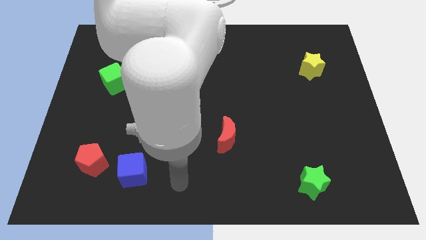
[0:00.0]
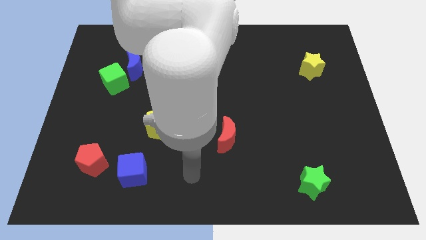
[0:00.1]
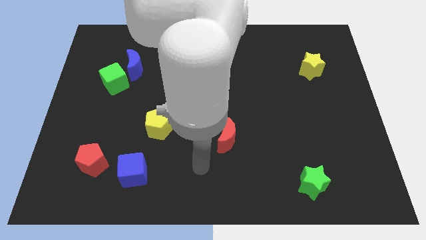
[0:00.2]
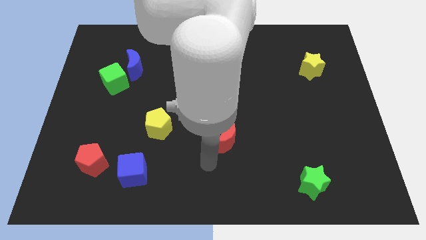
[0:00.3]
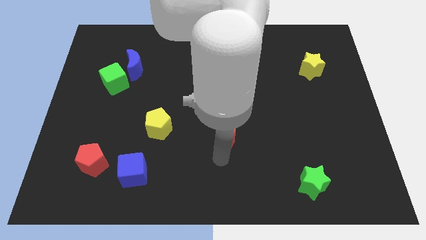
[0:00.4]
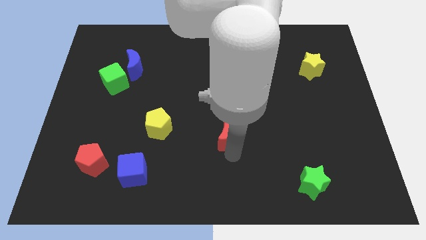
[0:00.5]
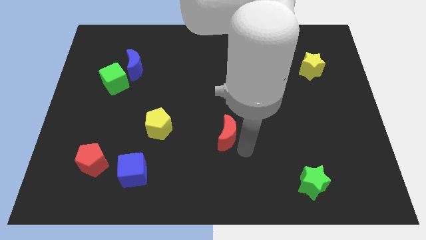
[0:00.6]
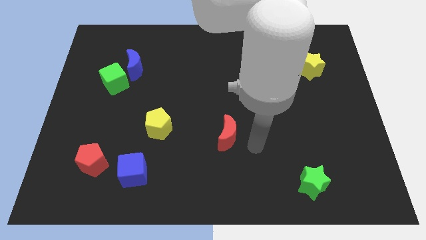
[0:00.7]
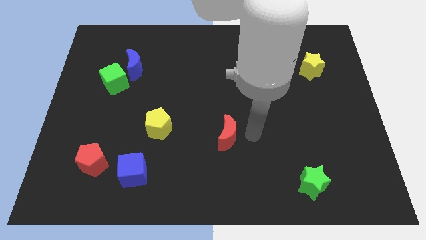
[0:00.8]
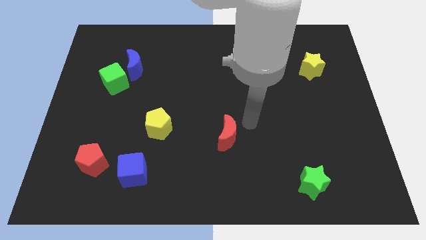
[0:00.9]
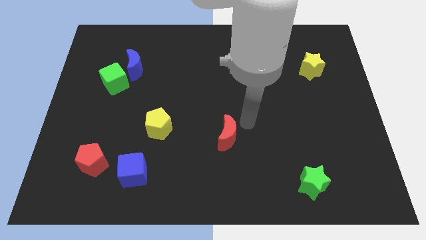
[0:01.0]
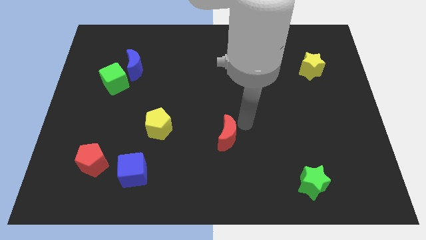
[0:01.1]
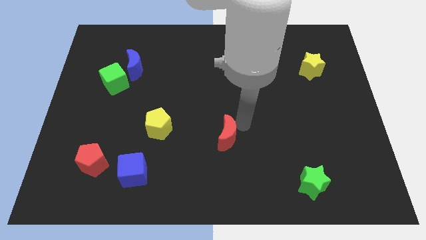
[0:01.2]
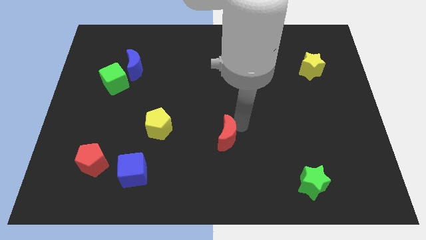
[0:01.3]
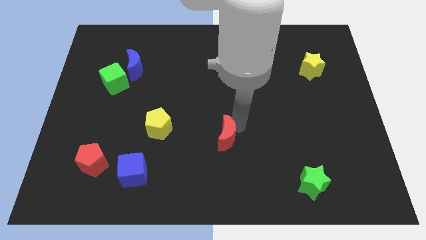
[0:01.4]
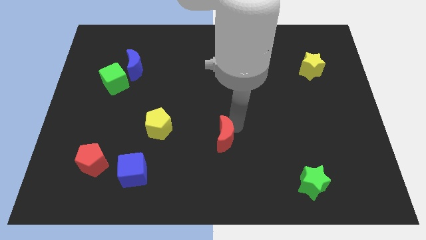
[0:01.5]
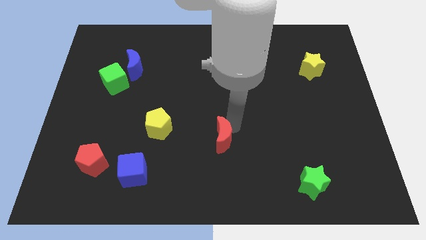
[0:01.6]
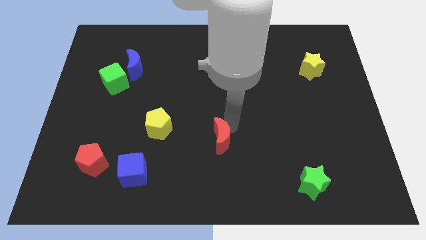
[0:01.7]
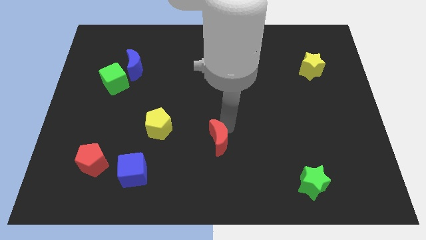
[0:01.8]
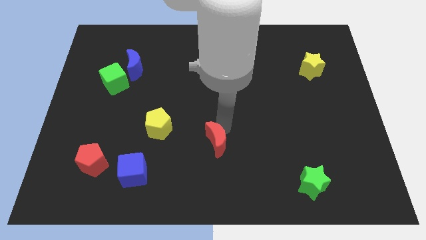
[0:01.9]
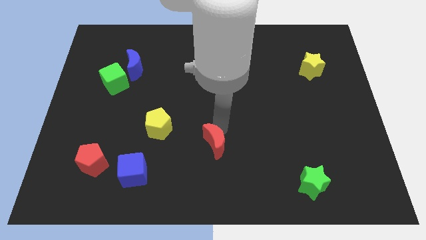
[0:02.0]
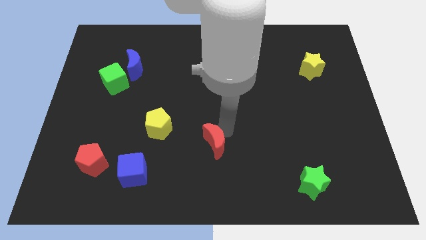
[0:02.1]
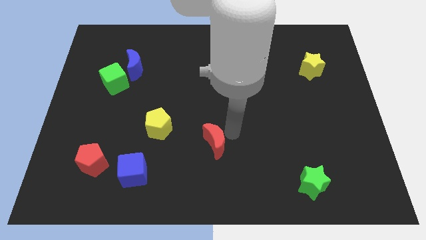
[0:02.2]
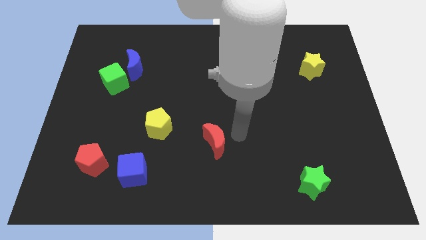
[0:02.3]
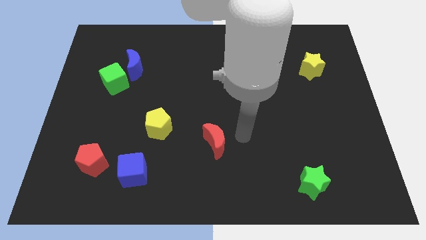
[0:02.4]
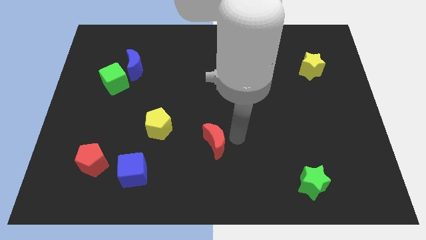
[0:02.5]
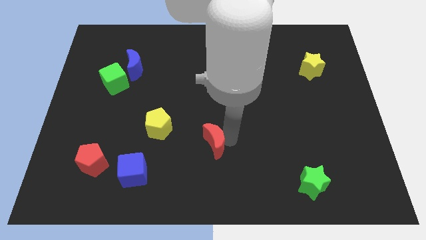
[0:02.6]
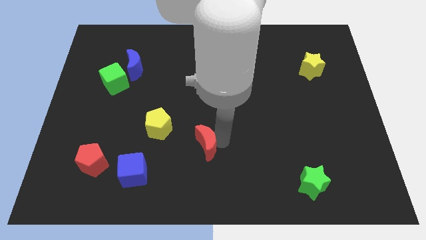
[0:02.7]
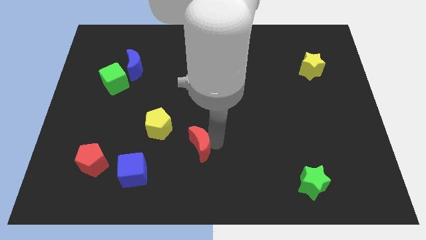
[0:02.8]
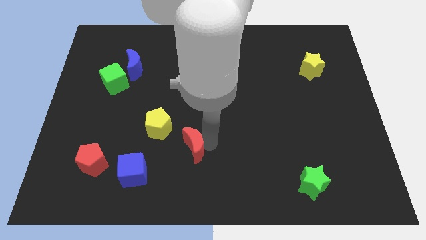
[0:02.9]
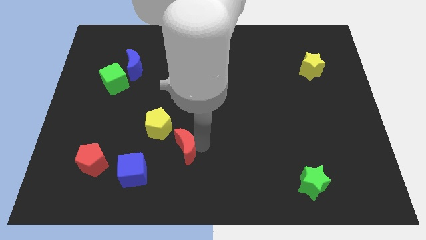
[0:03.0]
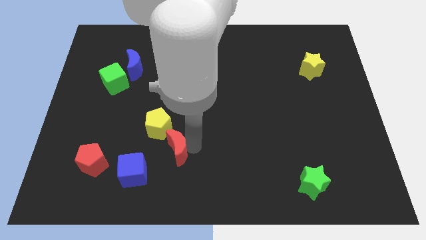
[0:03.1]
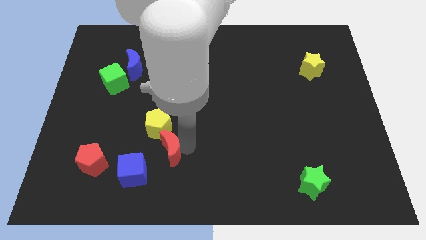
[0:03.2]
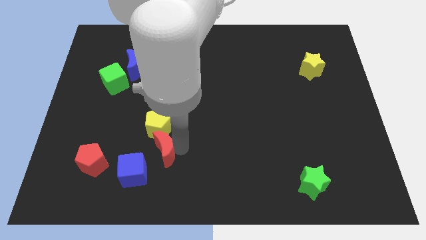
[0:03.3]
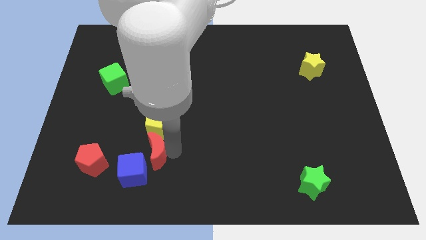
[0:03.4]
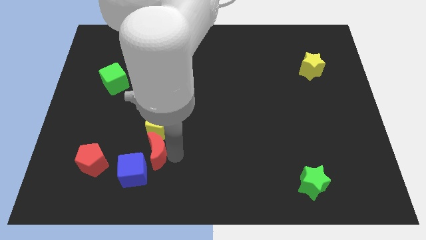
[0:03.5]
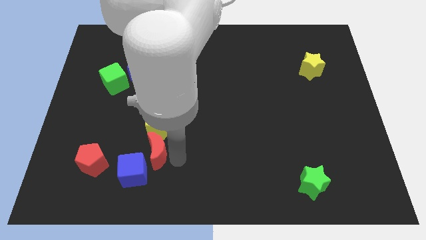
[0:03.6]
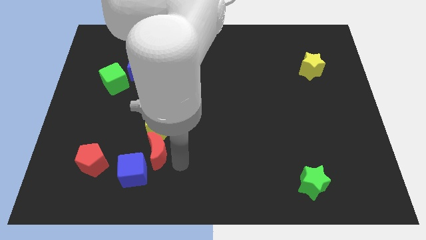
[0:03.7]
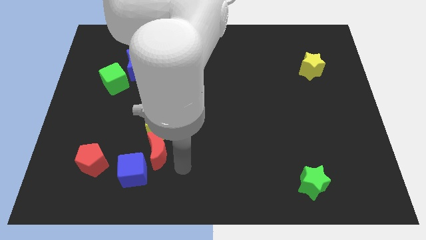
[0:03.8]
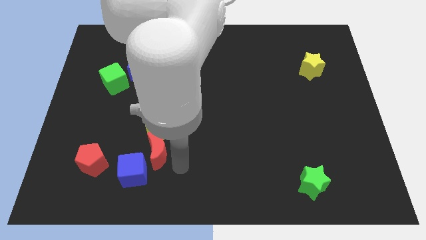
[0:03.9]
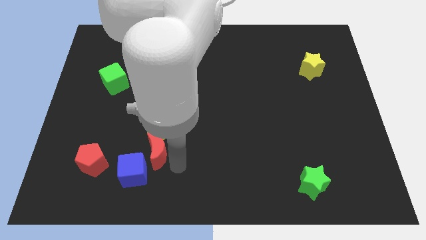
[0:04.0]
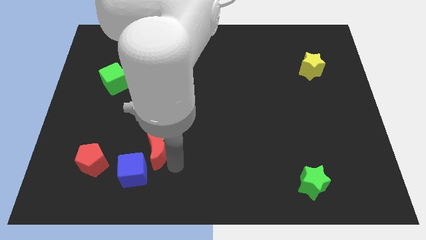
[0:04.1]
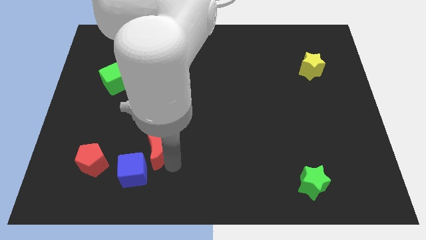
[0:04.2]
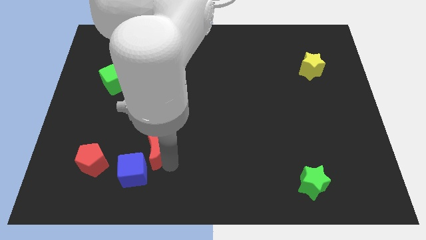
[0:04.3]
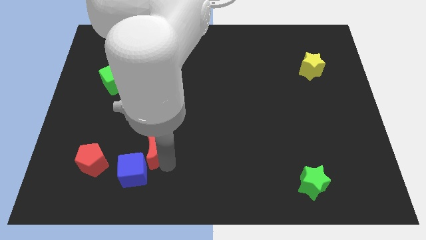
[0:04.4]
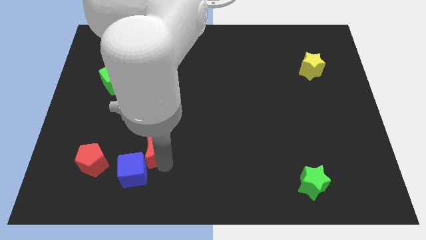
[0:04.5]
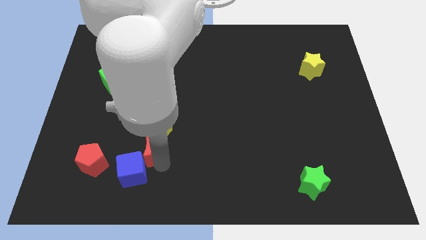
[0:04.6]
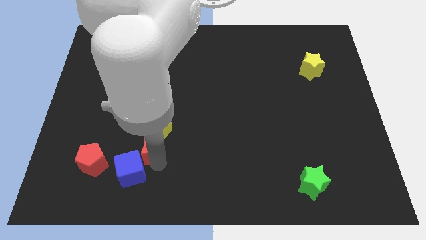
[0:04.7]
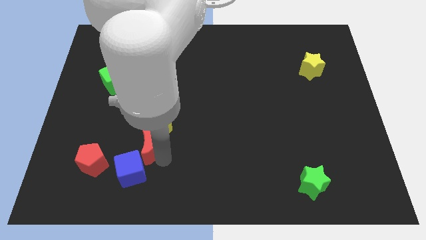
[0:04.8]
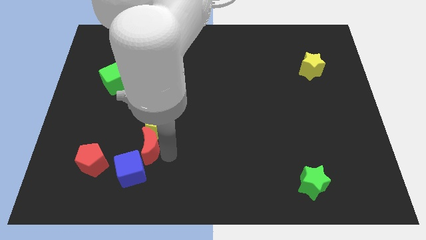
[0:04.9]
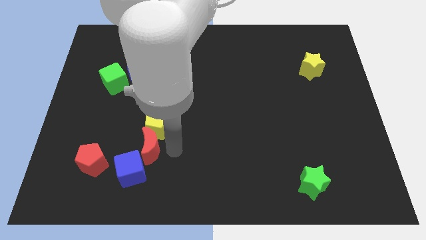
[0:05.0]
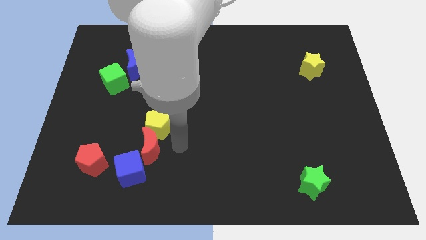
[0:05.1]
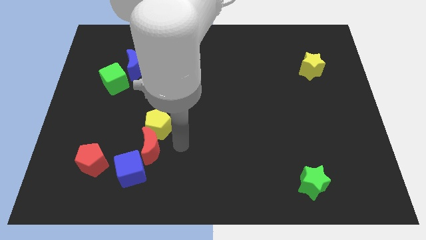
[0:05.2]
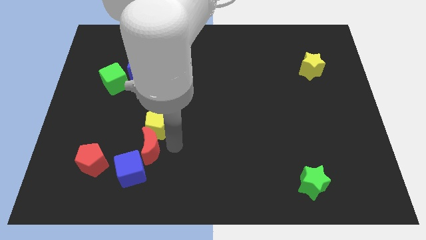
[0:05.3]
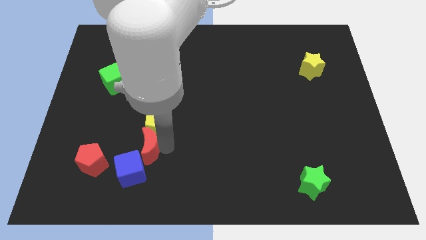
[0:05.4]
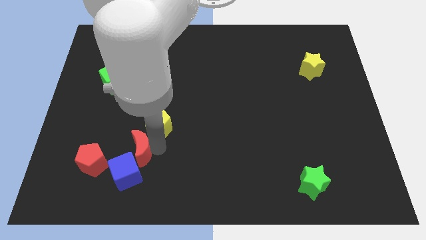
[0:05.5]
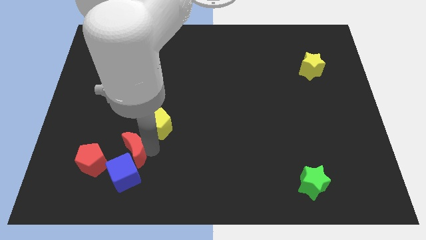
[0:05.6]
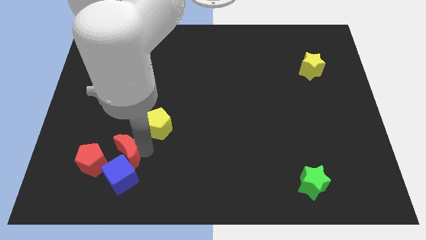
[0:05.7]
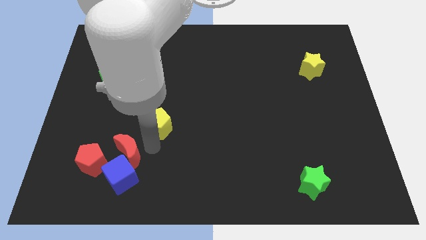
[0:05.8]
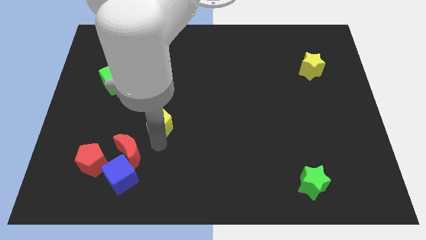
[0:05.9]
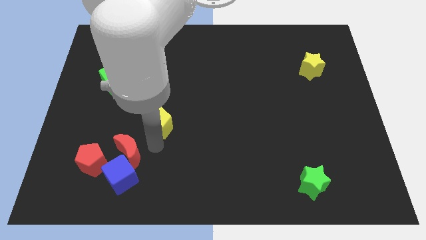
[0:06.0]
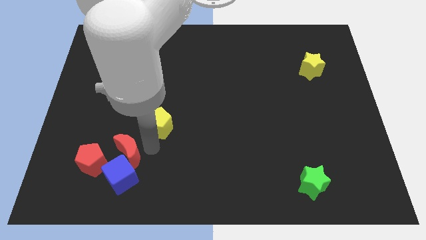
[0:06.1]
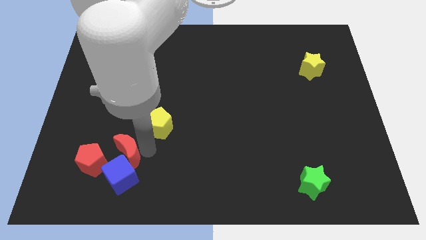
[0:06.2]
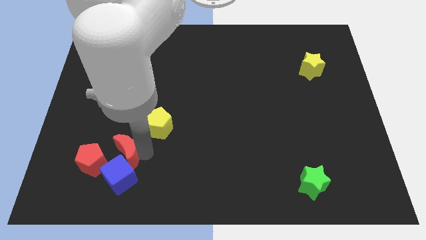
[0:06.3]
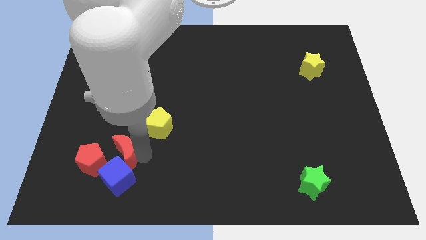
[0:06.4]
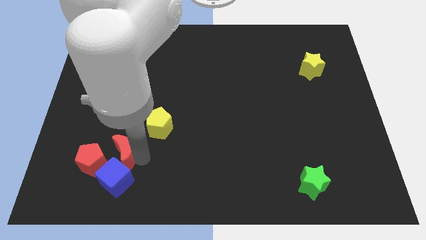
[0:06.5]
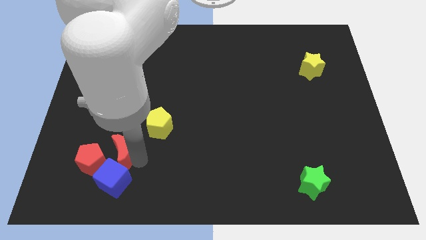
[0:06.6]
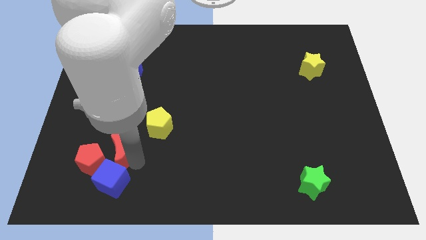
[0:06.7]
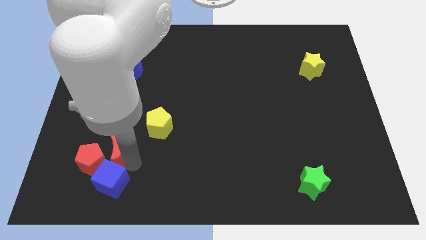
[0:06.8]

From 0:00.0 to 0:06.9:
move the red moon close to the red pentagon

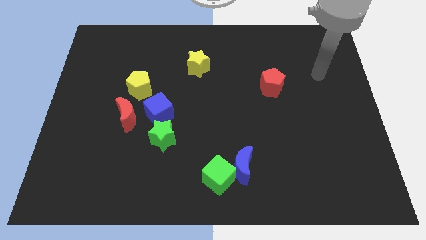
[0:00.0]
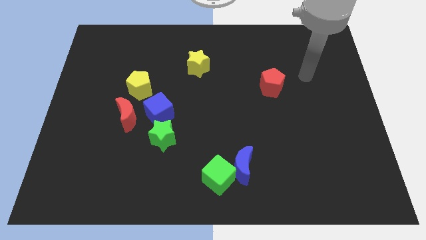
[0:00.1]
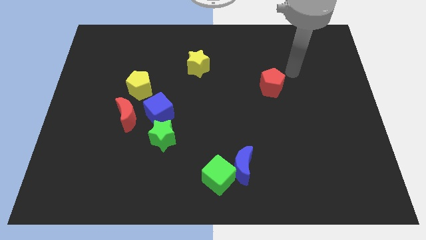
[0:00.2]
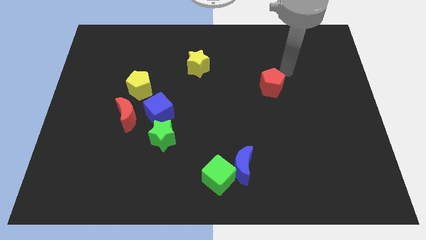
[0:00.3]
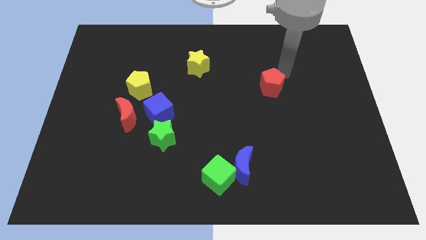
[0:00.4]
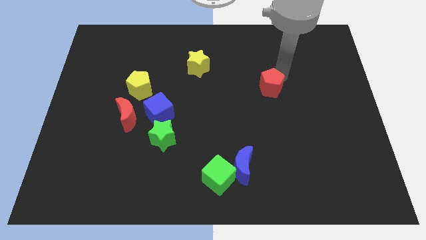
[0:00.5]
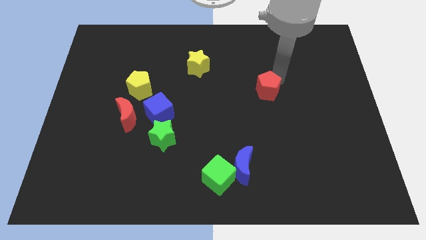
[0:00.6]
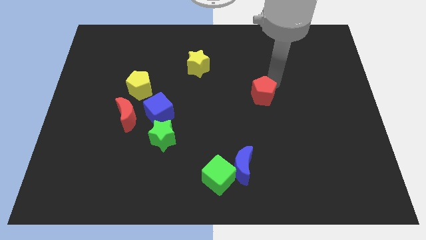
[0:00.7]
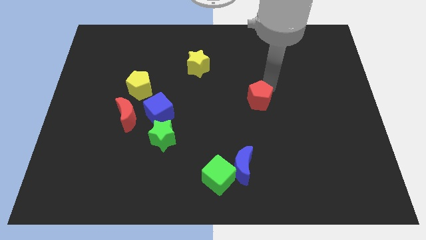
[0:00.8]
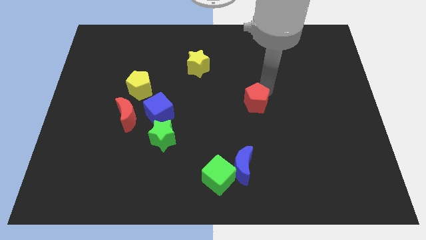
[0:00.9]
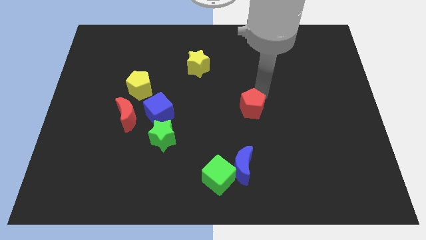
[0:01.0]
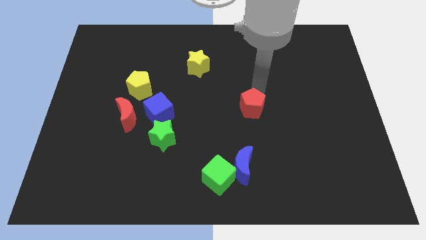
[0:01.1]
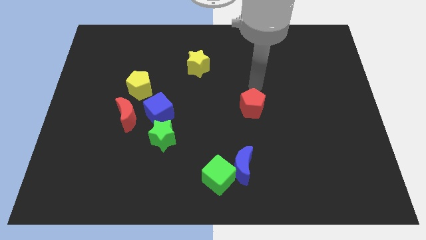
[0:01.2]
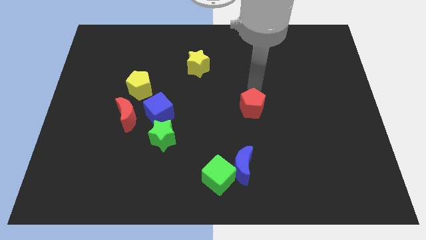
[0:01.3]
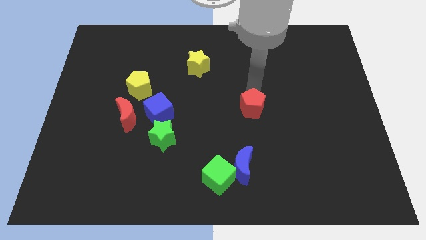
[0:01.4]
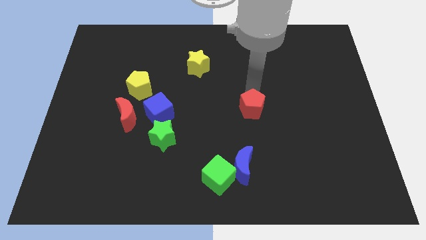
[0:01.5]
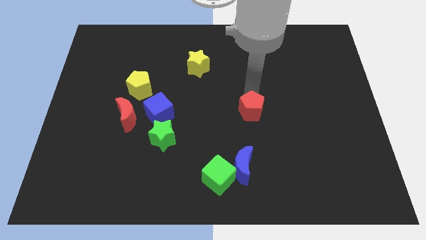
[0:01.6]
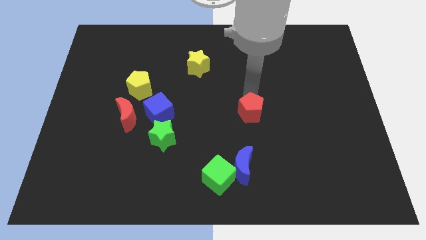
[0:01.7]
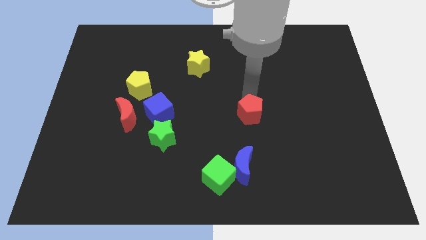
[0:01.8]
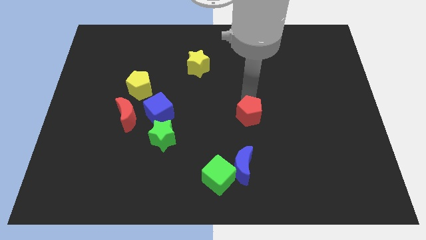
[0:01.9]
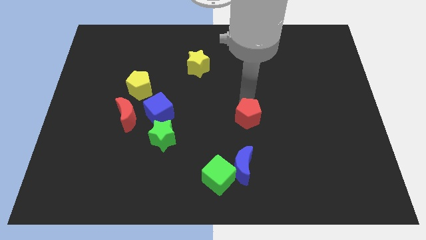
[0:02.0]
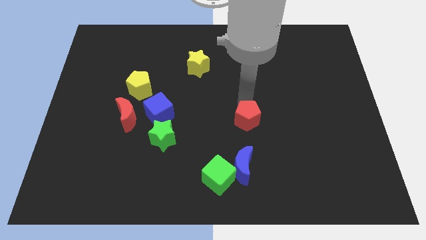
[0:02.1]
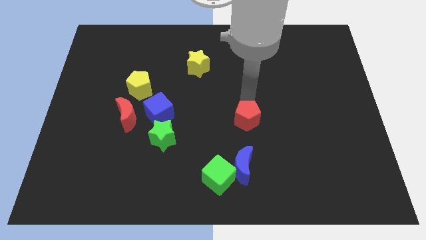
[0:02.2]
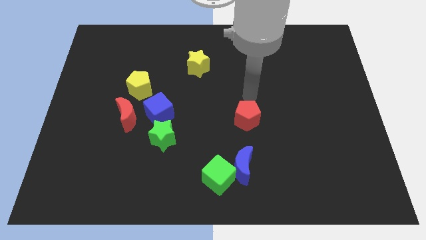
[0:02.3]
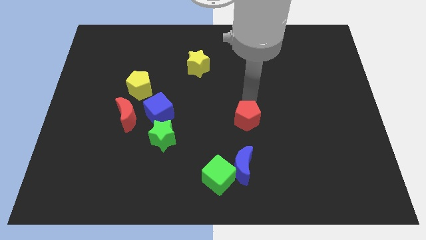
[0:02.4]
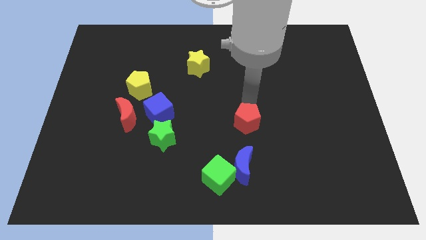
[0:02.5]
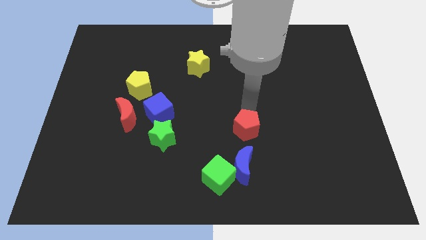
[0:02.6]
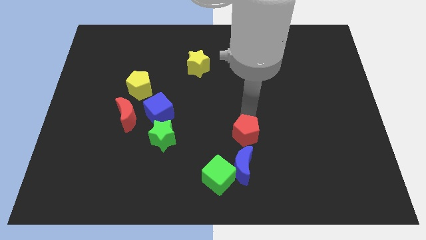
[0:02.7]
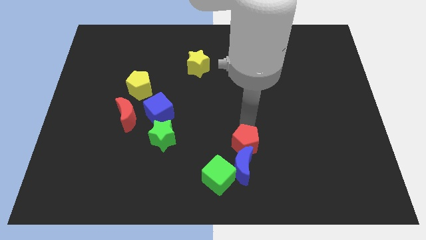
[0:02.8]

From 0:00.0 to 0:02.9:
slide the red pentagon to the blue moon
